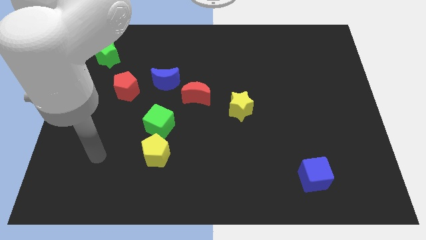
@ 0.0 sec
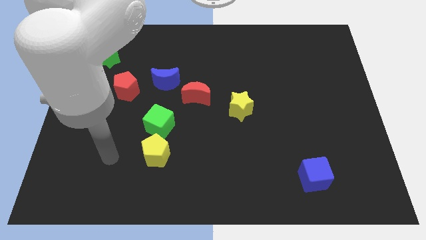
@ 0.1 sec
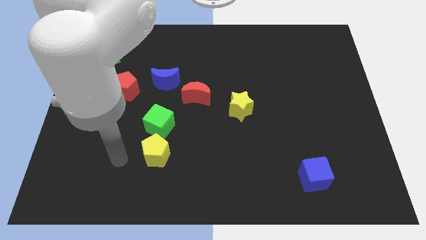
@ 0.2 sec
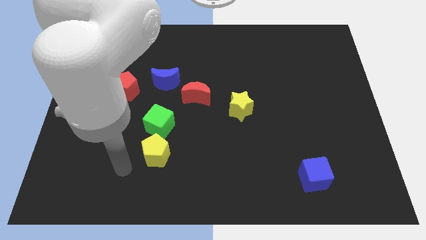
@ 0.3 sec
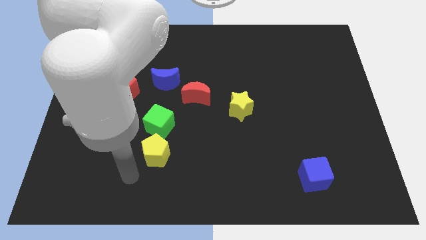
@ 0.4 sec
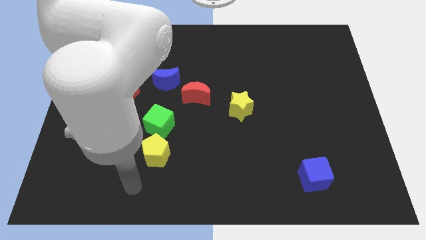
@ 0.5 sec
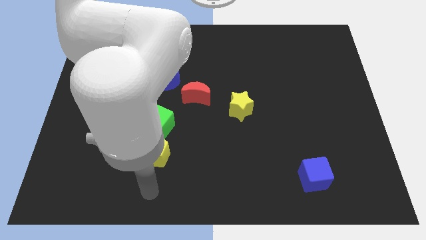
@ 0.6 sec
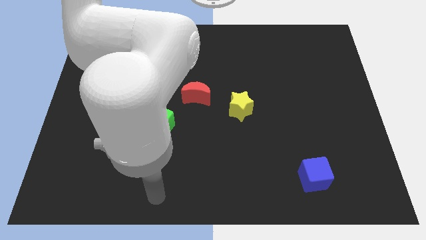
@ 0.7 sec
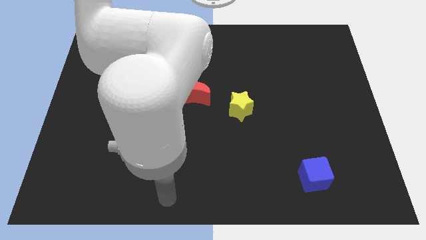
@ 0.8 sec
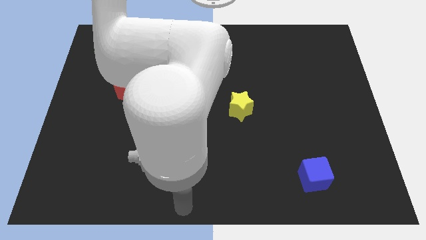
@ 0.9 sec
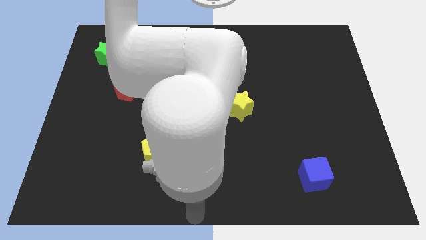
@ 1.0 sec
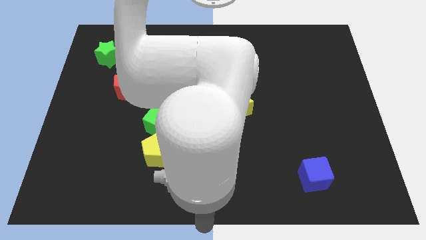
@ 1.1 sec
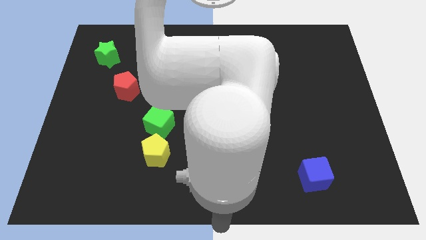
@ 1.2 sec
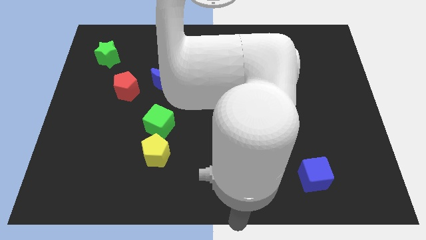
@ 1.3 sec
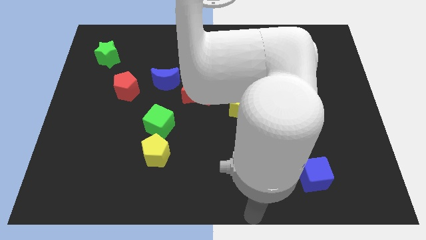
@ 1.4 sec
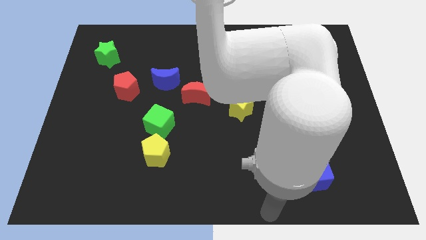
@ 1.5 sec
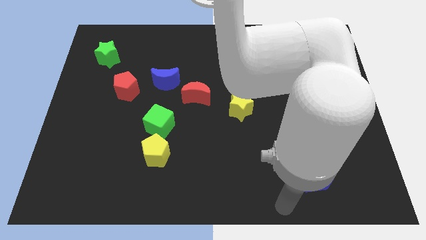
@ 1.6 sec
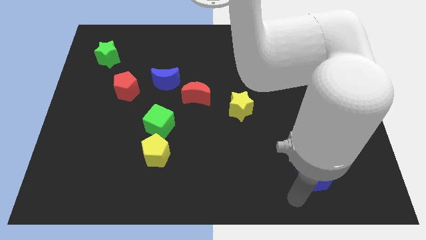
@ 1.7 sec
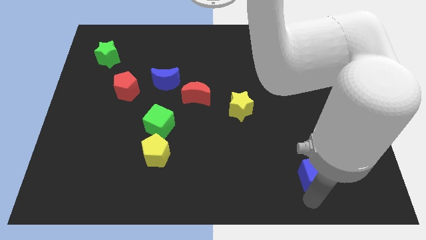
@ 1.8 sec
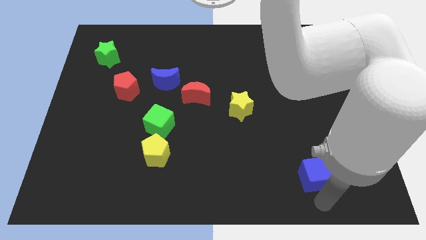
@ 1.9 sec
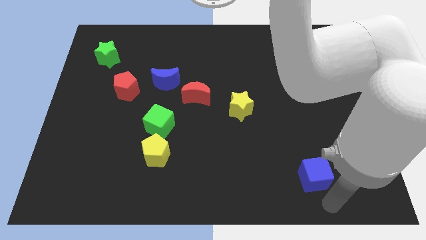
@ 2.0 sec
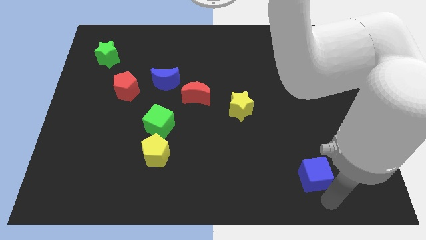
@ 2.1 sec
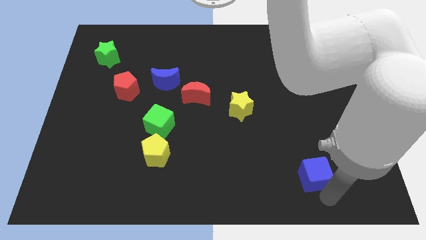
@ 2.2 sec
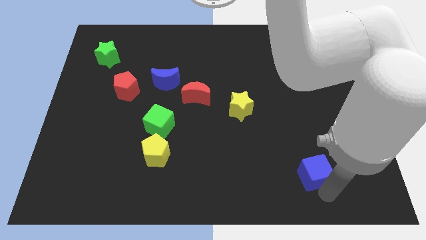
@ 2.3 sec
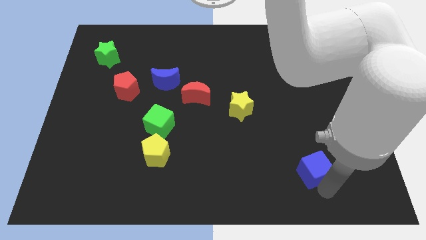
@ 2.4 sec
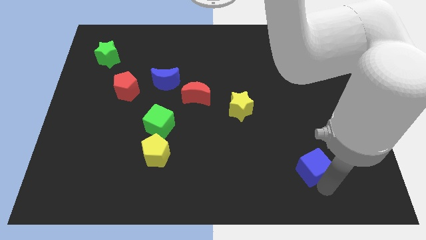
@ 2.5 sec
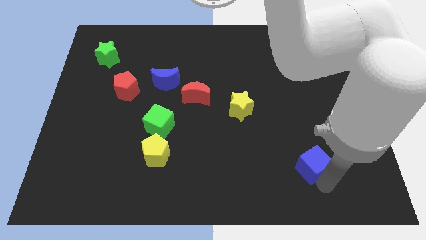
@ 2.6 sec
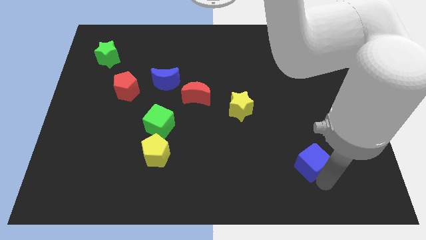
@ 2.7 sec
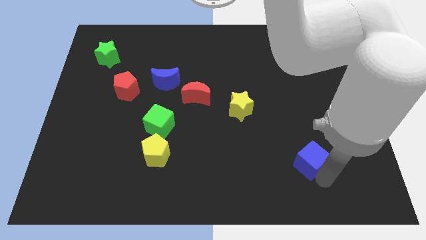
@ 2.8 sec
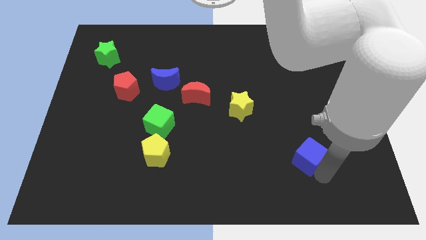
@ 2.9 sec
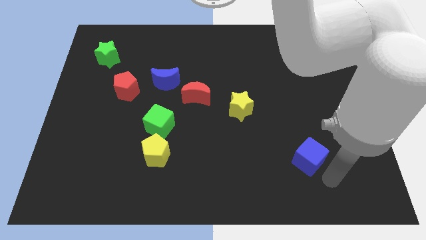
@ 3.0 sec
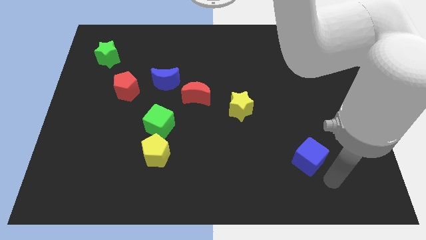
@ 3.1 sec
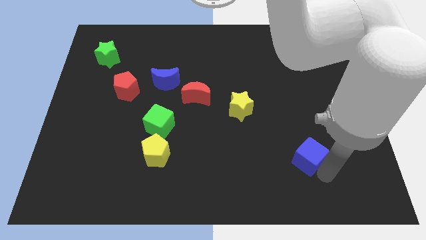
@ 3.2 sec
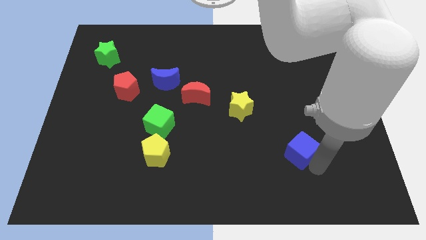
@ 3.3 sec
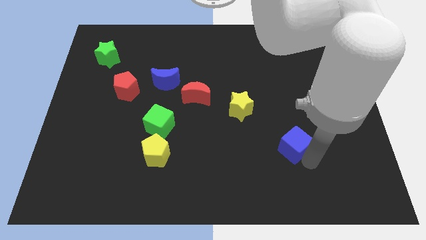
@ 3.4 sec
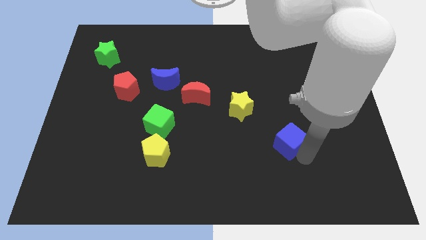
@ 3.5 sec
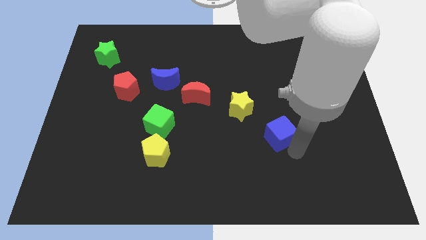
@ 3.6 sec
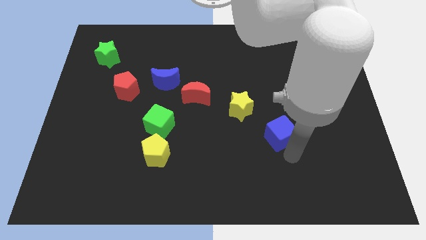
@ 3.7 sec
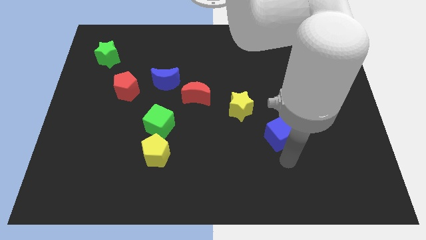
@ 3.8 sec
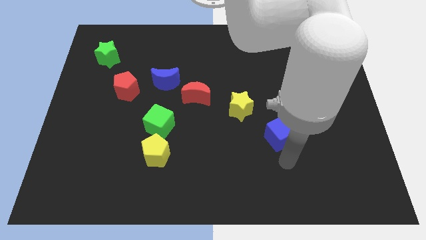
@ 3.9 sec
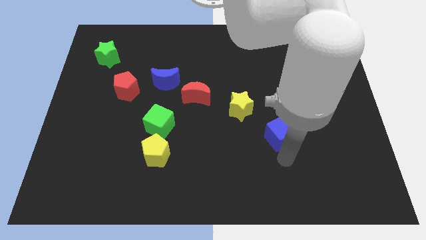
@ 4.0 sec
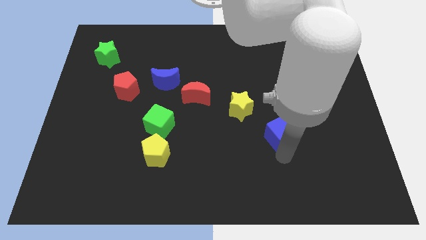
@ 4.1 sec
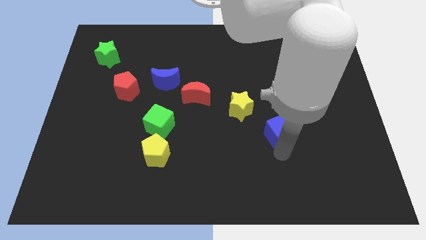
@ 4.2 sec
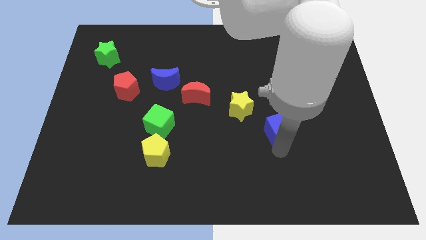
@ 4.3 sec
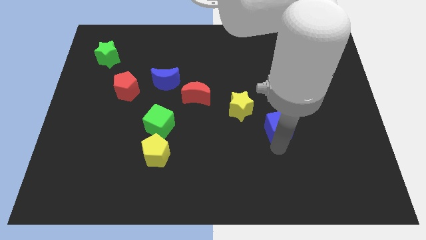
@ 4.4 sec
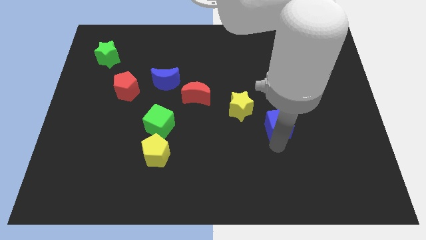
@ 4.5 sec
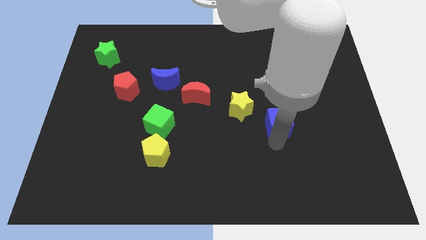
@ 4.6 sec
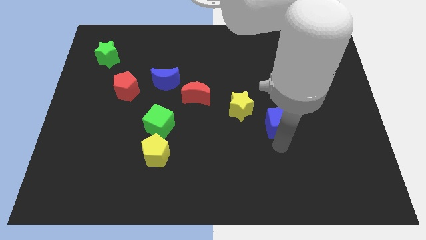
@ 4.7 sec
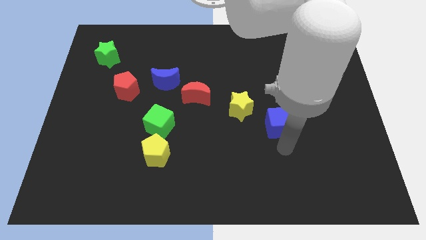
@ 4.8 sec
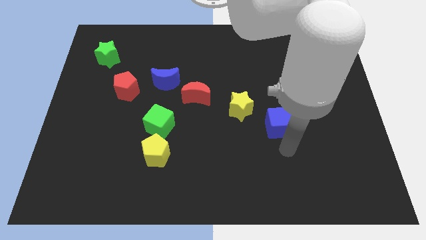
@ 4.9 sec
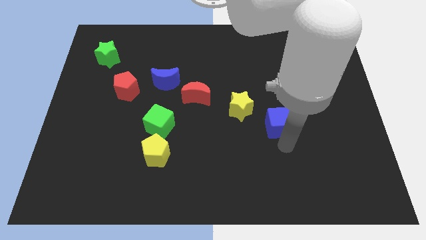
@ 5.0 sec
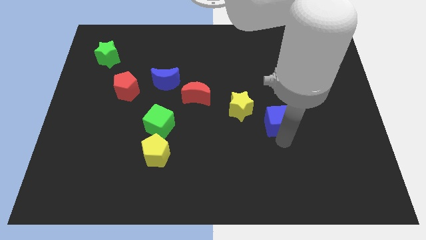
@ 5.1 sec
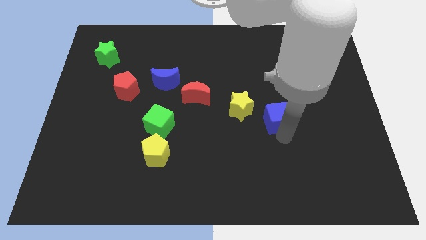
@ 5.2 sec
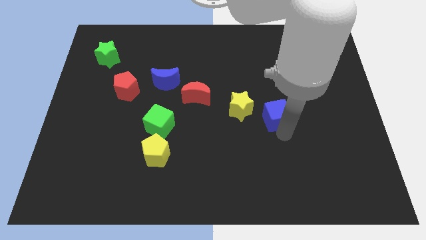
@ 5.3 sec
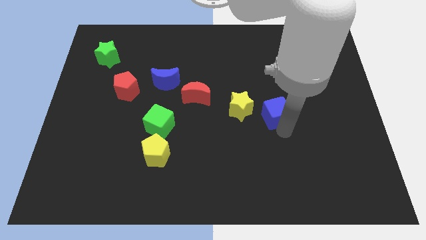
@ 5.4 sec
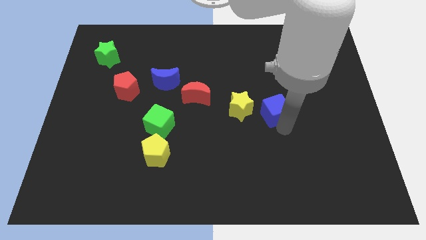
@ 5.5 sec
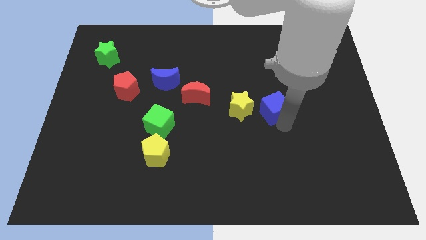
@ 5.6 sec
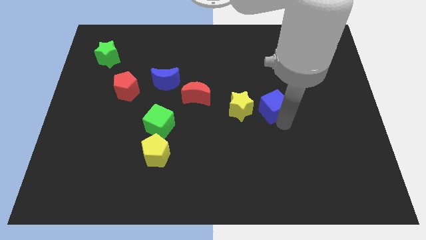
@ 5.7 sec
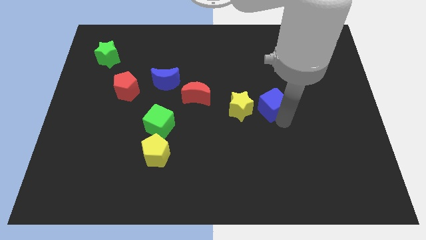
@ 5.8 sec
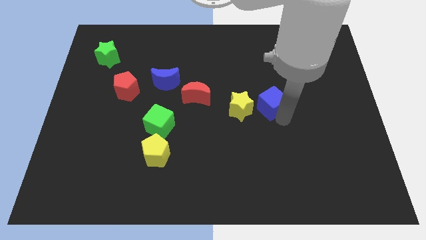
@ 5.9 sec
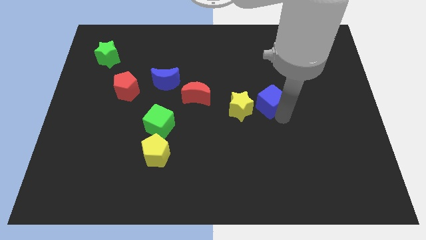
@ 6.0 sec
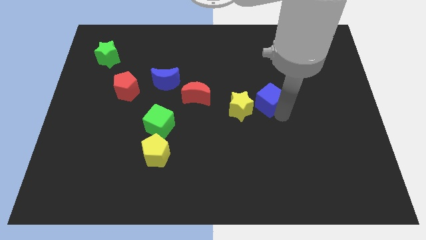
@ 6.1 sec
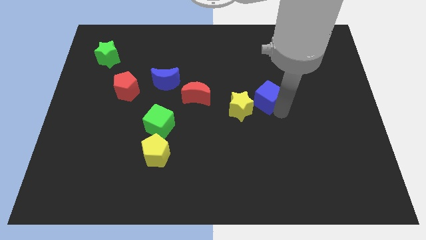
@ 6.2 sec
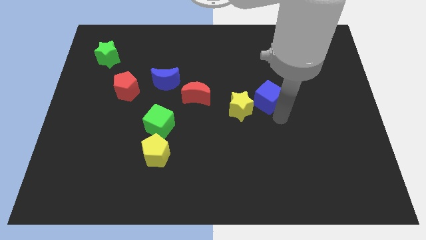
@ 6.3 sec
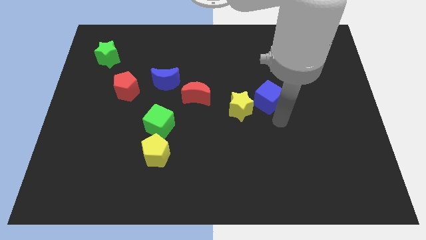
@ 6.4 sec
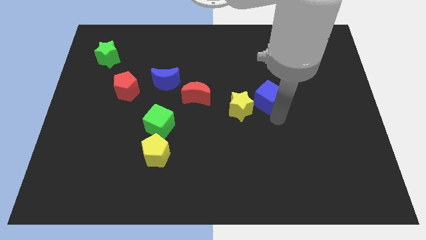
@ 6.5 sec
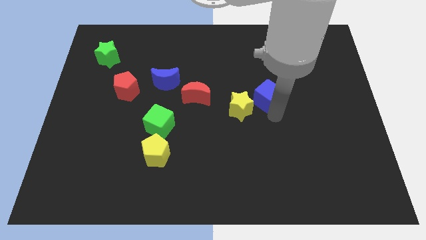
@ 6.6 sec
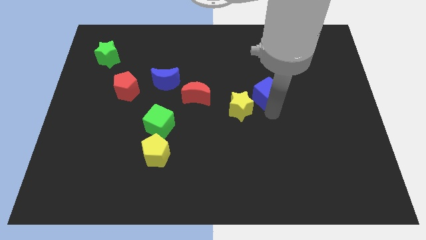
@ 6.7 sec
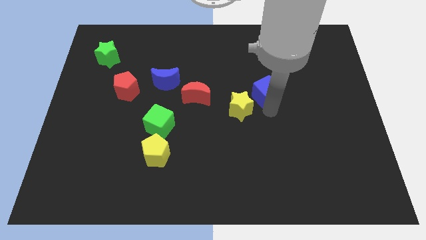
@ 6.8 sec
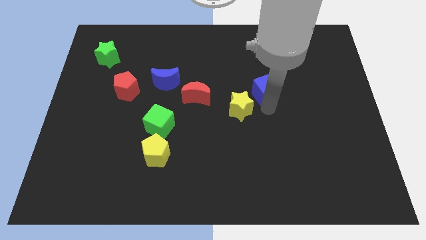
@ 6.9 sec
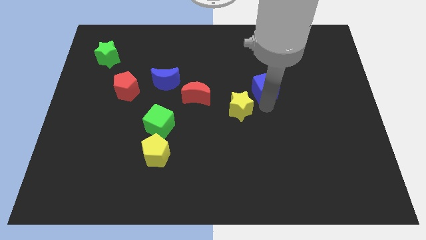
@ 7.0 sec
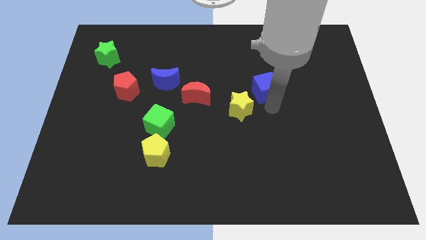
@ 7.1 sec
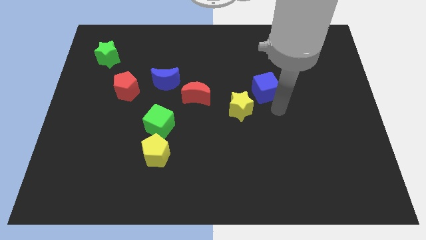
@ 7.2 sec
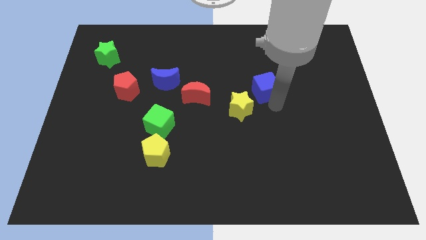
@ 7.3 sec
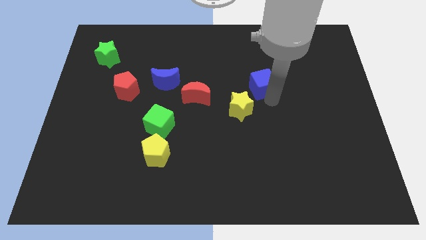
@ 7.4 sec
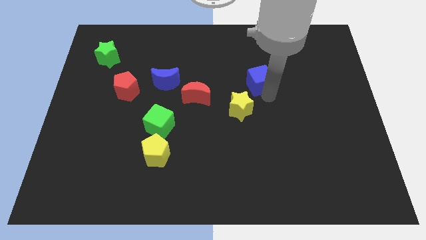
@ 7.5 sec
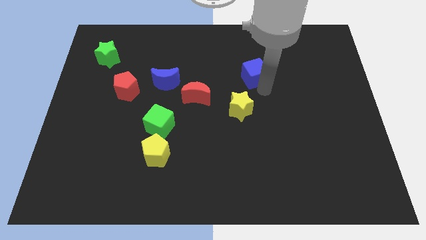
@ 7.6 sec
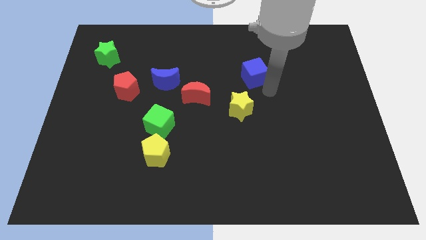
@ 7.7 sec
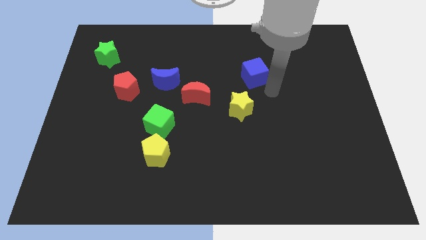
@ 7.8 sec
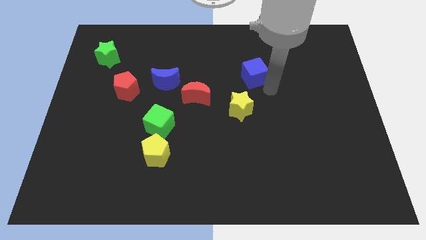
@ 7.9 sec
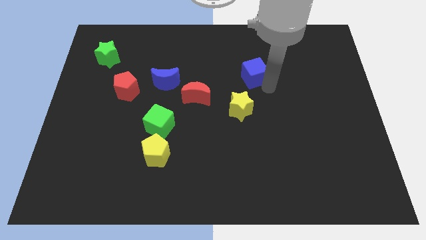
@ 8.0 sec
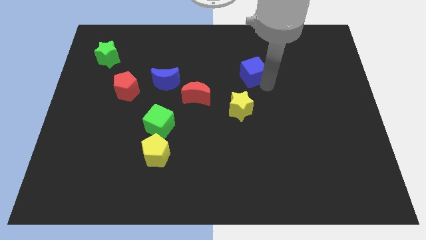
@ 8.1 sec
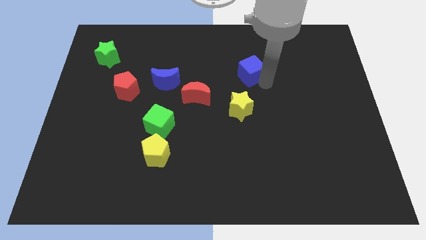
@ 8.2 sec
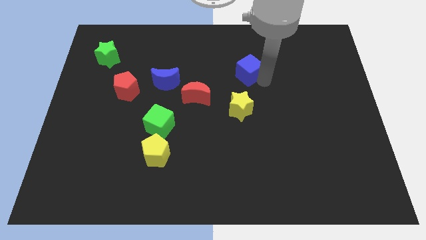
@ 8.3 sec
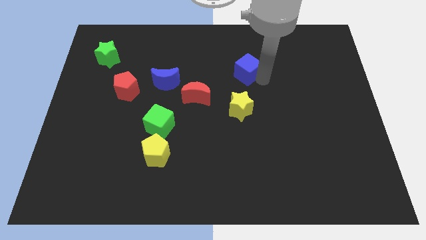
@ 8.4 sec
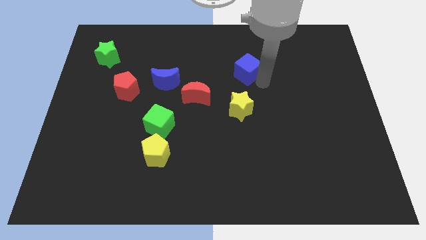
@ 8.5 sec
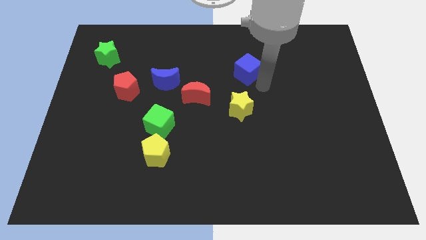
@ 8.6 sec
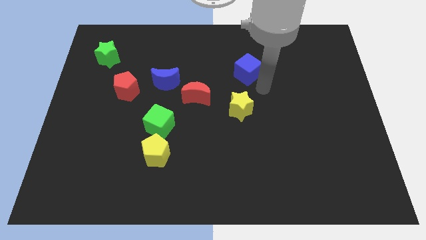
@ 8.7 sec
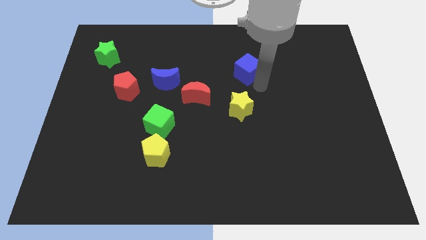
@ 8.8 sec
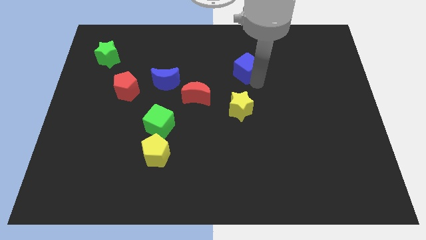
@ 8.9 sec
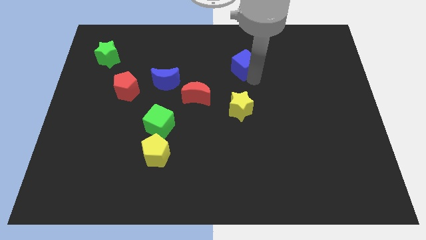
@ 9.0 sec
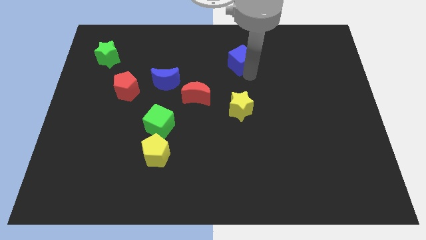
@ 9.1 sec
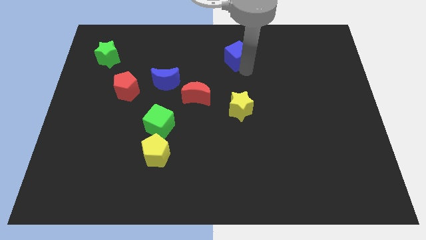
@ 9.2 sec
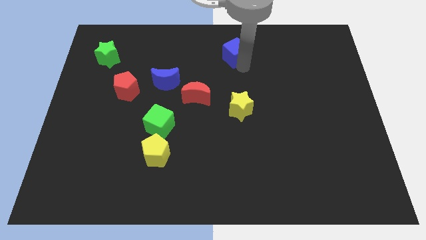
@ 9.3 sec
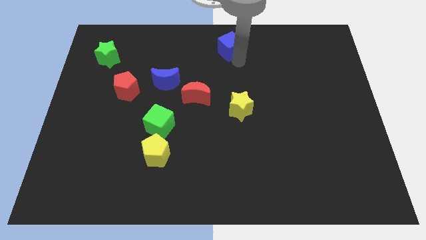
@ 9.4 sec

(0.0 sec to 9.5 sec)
move the blue cube to the top
